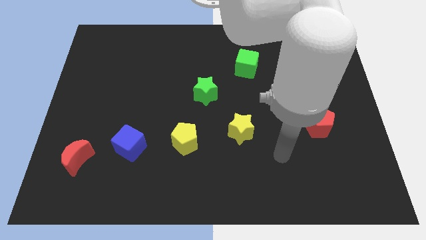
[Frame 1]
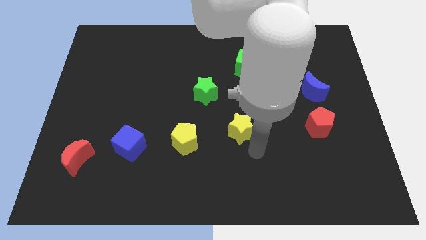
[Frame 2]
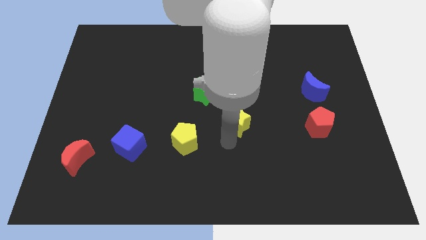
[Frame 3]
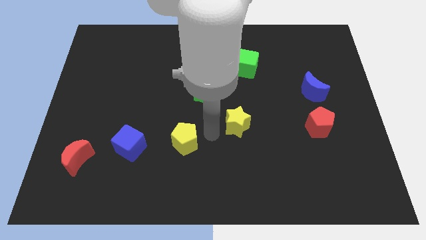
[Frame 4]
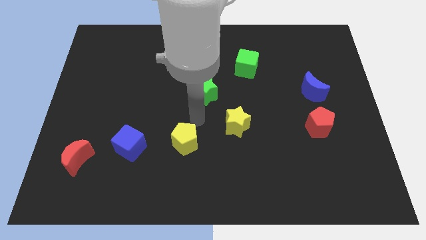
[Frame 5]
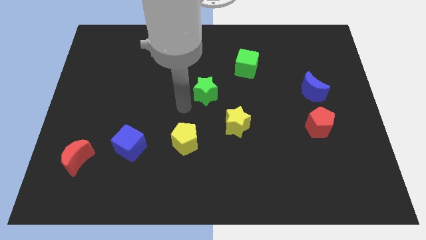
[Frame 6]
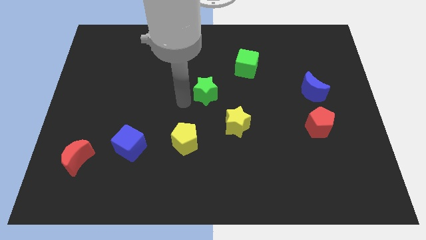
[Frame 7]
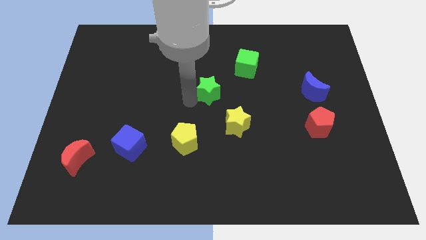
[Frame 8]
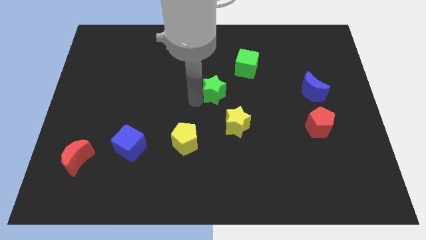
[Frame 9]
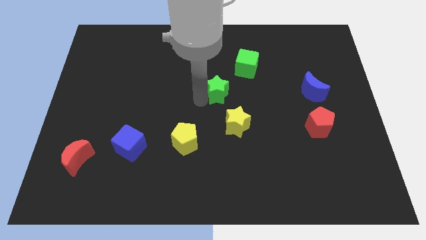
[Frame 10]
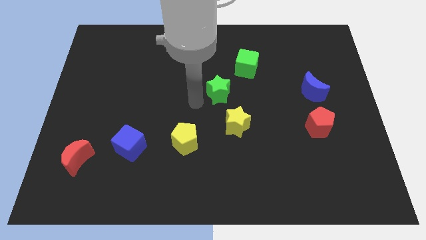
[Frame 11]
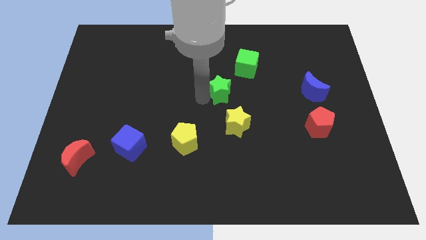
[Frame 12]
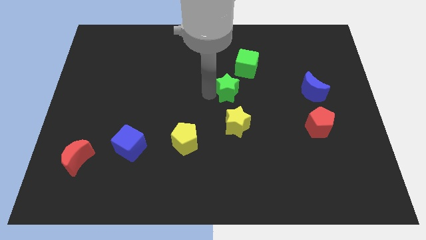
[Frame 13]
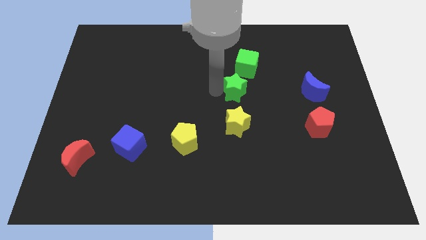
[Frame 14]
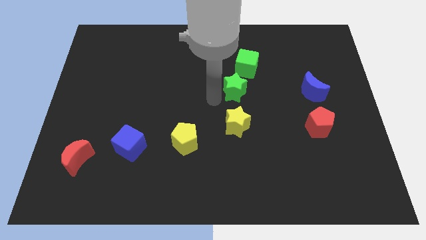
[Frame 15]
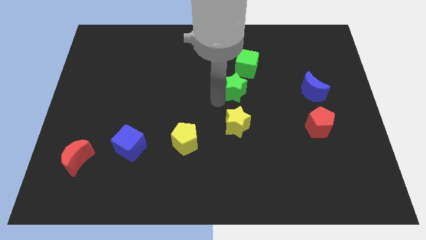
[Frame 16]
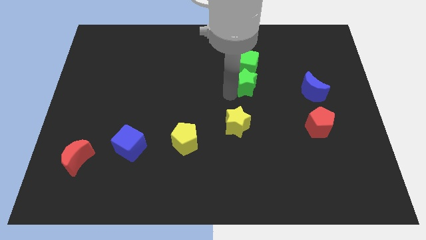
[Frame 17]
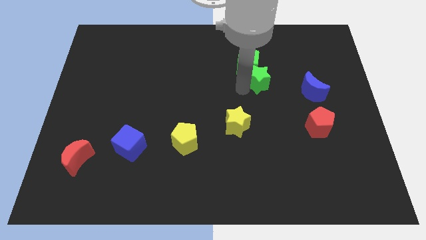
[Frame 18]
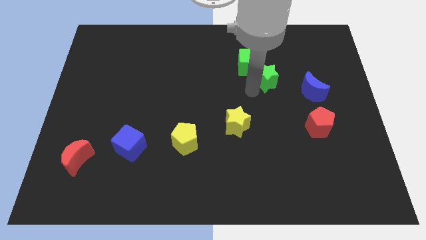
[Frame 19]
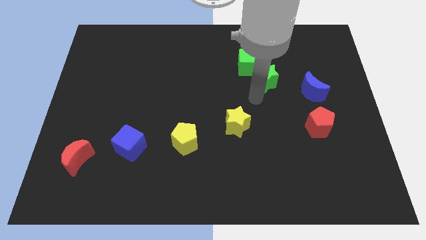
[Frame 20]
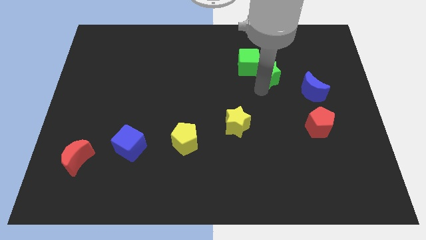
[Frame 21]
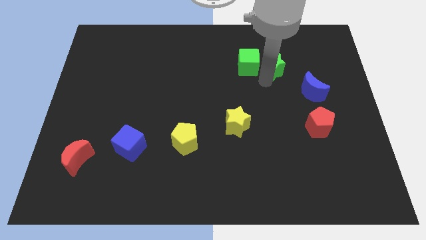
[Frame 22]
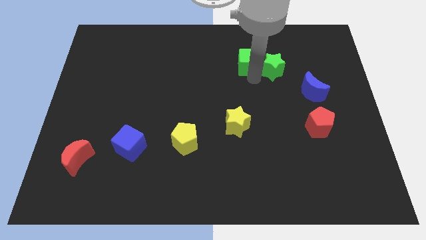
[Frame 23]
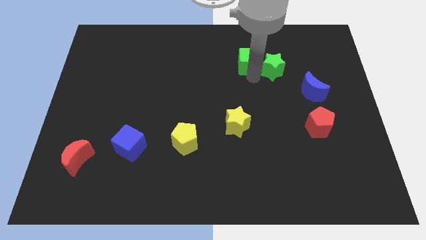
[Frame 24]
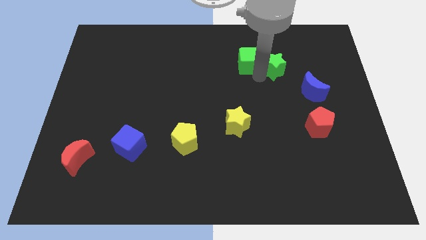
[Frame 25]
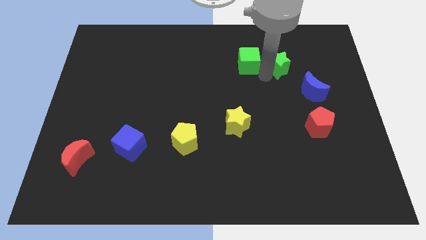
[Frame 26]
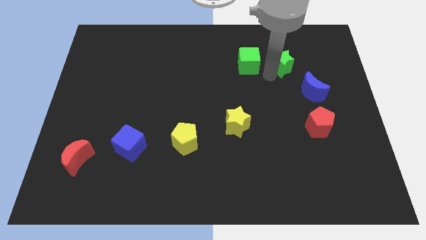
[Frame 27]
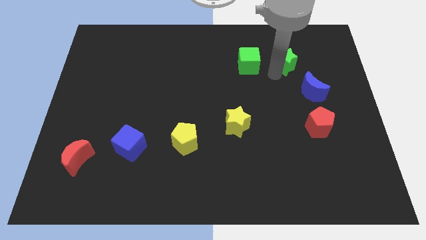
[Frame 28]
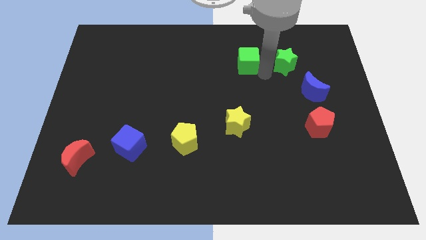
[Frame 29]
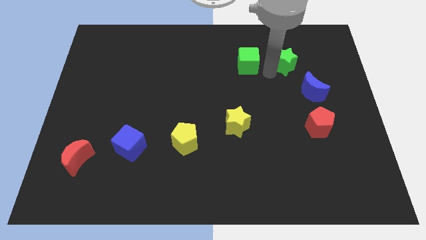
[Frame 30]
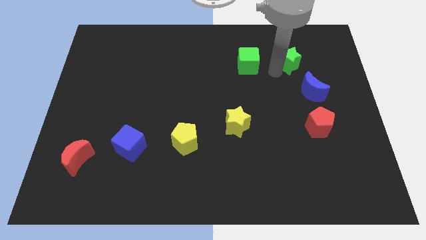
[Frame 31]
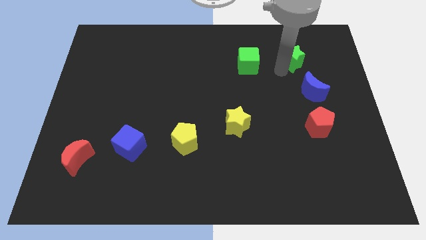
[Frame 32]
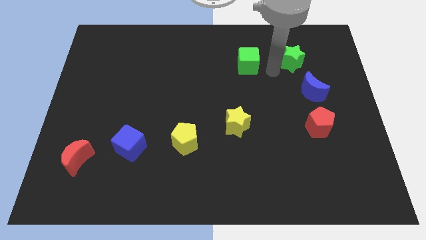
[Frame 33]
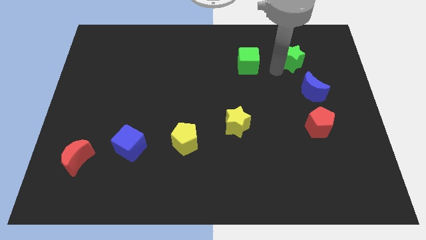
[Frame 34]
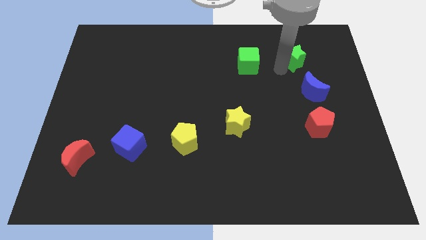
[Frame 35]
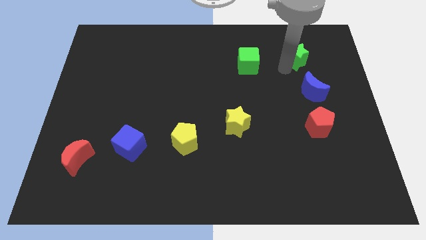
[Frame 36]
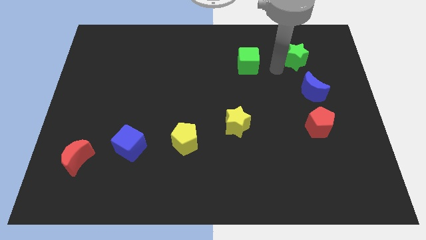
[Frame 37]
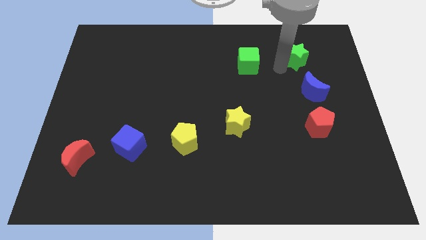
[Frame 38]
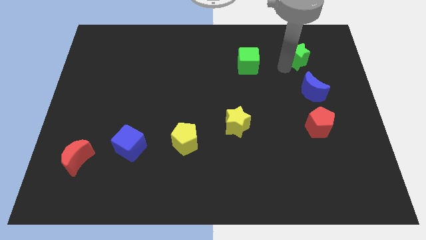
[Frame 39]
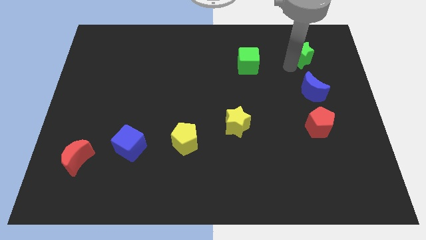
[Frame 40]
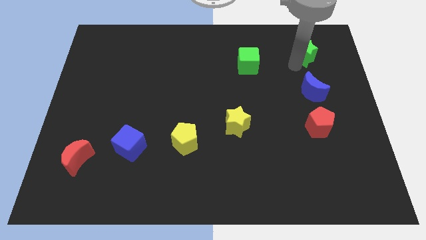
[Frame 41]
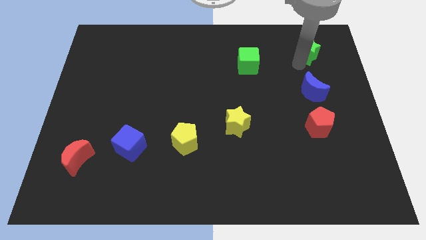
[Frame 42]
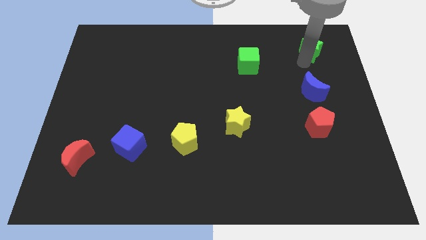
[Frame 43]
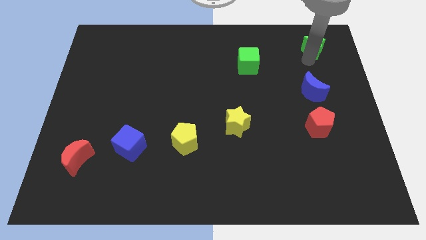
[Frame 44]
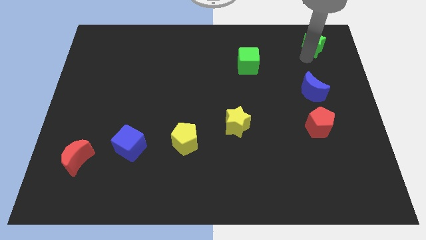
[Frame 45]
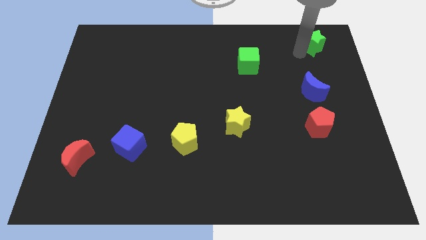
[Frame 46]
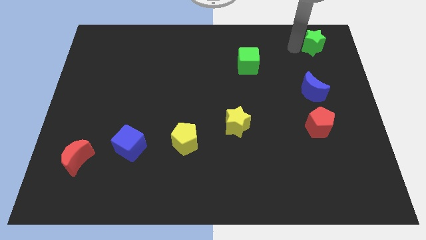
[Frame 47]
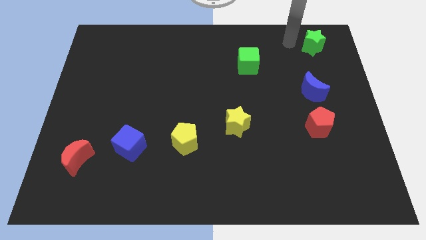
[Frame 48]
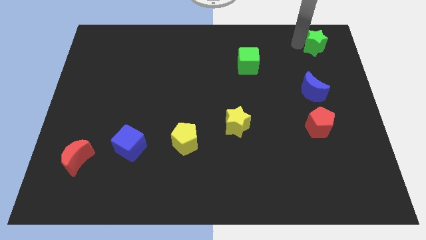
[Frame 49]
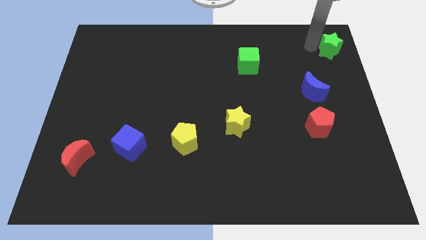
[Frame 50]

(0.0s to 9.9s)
put the green star to the top right of the board

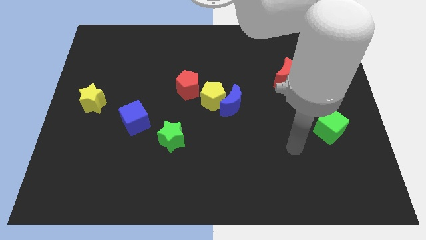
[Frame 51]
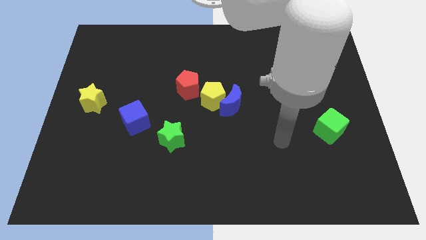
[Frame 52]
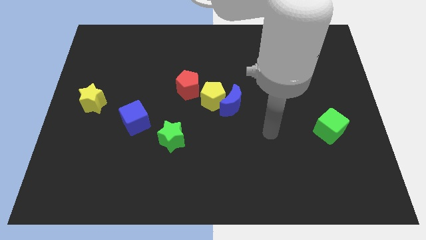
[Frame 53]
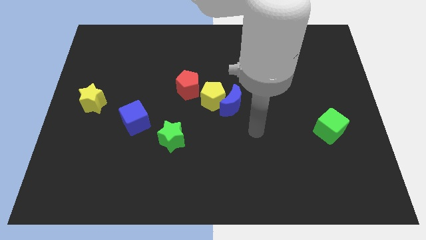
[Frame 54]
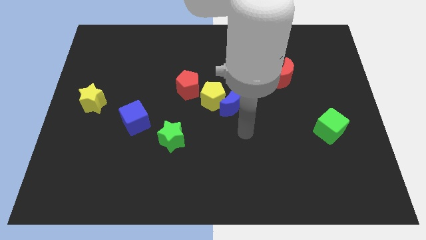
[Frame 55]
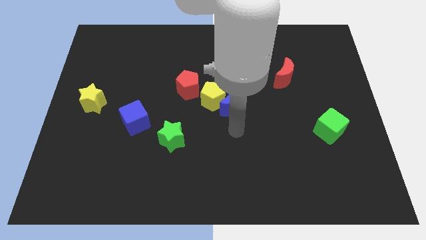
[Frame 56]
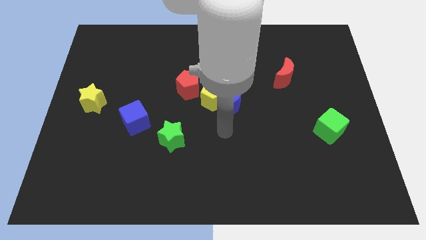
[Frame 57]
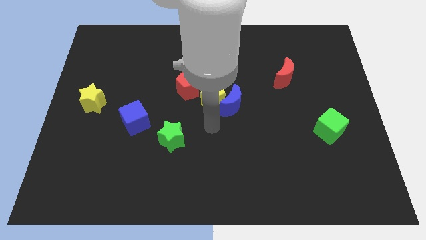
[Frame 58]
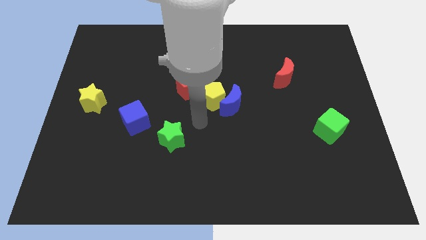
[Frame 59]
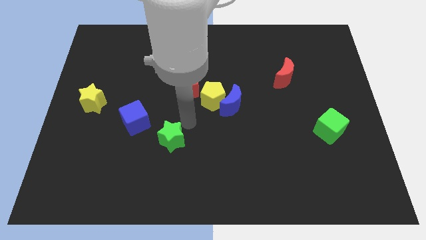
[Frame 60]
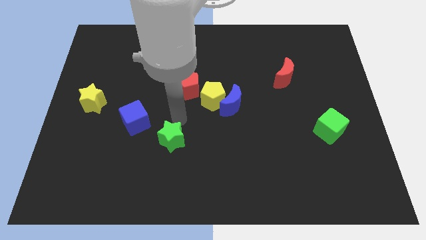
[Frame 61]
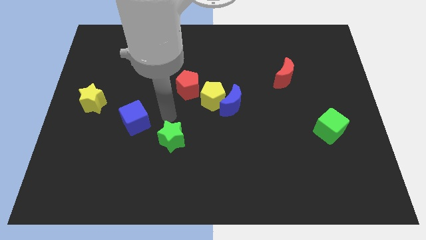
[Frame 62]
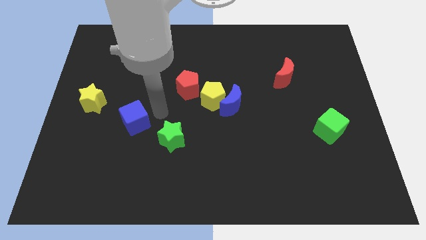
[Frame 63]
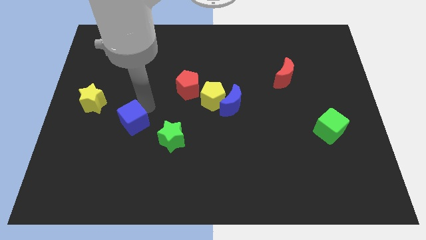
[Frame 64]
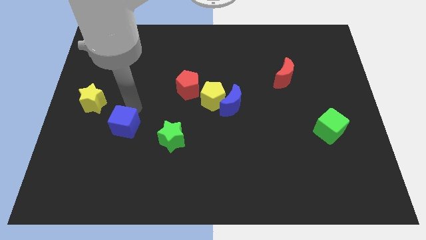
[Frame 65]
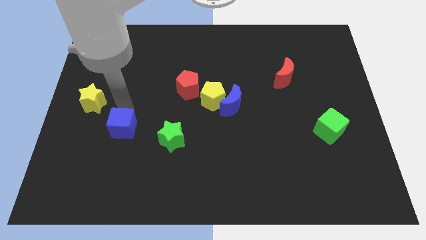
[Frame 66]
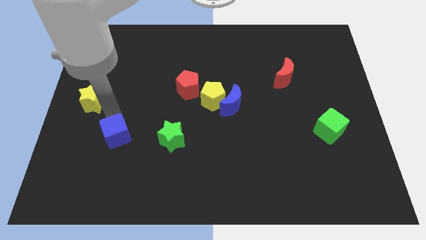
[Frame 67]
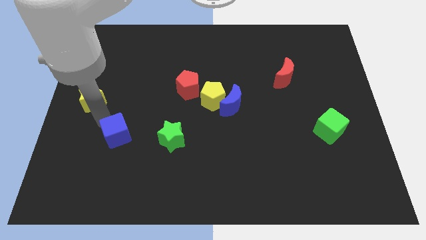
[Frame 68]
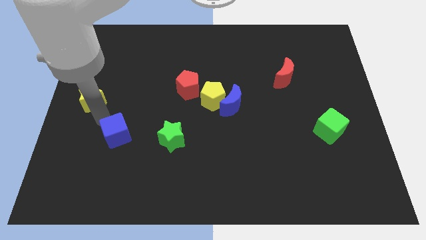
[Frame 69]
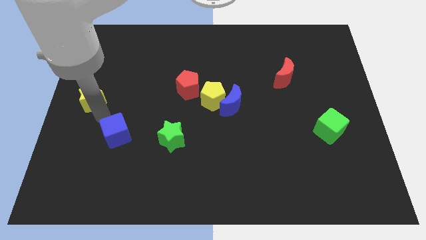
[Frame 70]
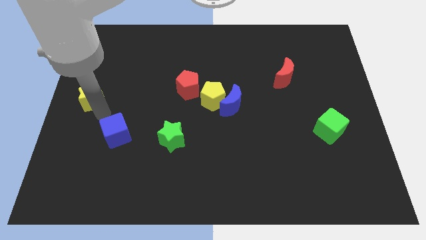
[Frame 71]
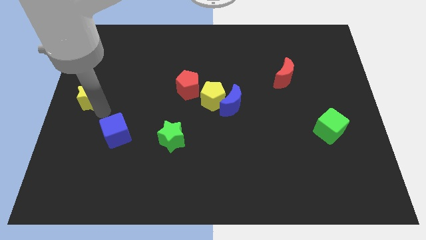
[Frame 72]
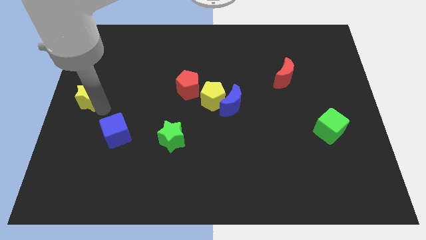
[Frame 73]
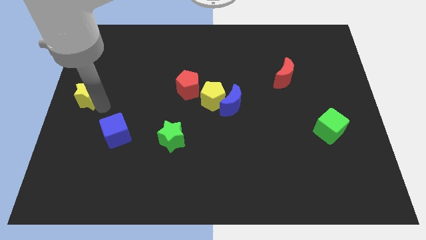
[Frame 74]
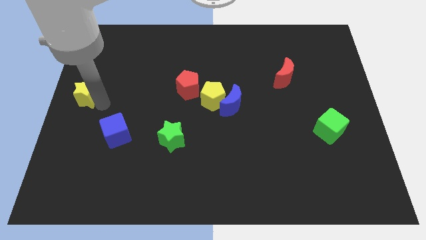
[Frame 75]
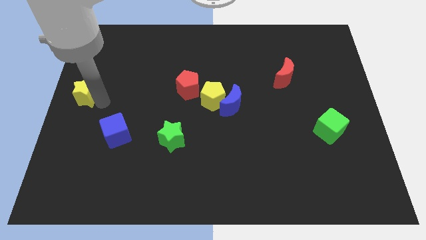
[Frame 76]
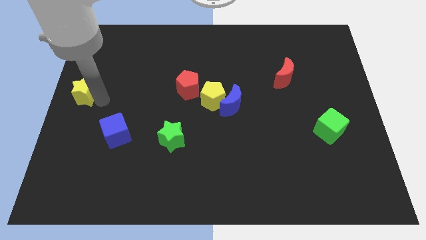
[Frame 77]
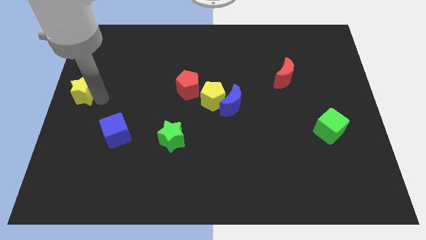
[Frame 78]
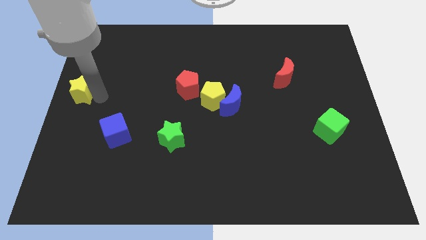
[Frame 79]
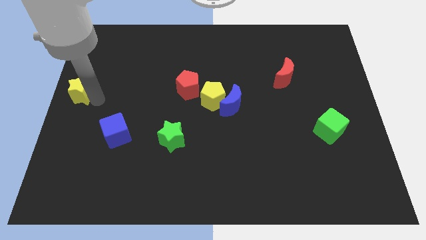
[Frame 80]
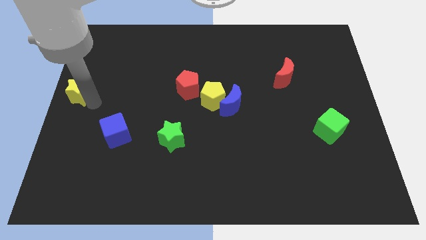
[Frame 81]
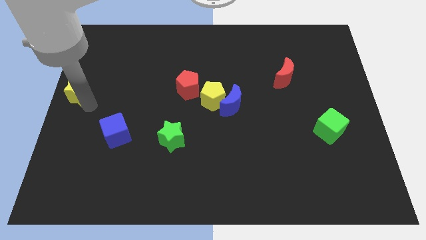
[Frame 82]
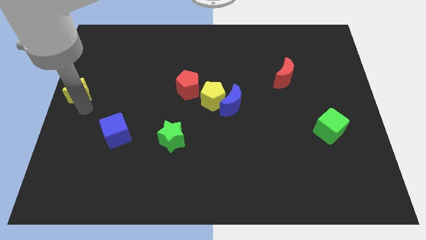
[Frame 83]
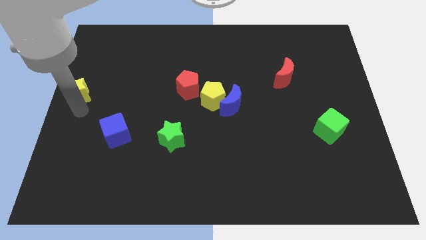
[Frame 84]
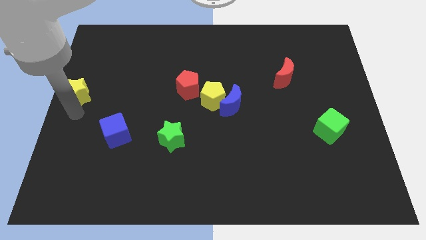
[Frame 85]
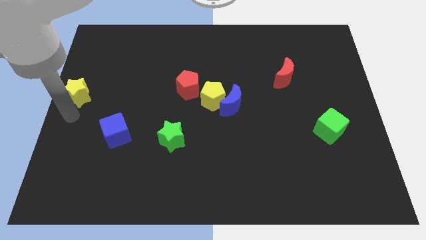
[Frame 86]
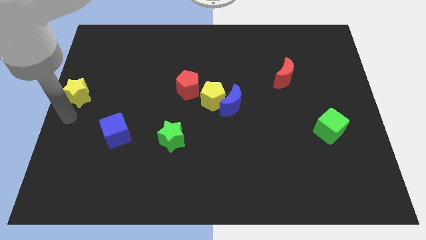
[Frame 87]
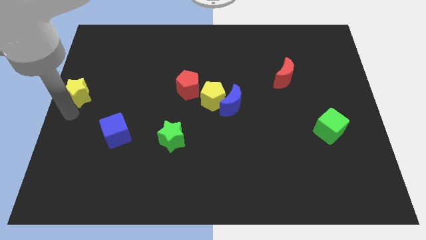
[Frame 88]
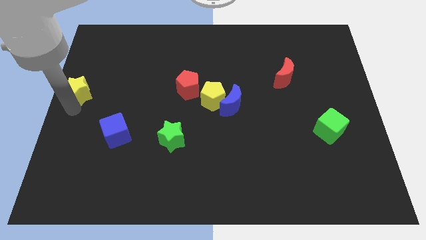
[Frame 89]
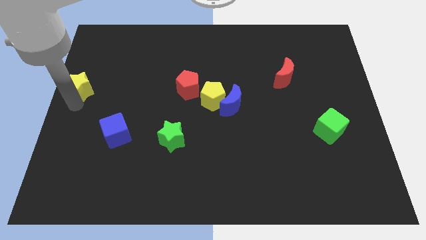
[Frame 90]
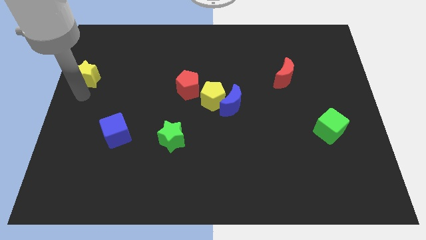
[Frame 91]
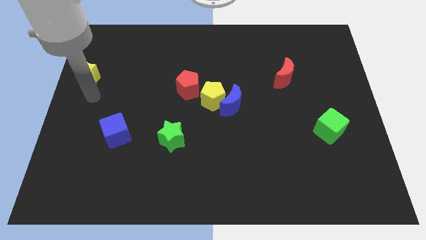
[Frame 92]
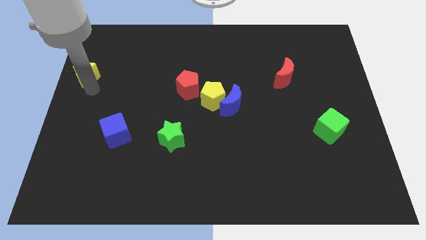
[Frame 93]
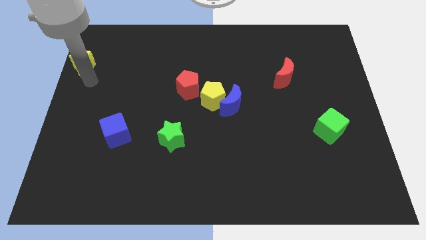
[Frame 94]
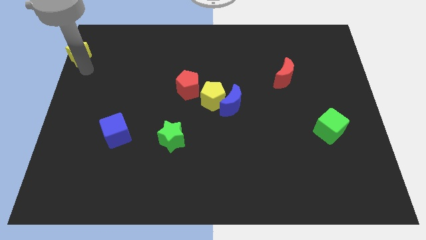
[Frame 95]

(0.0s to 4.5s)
push the yellow star to the top left corner
